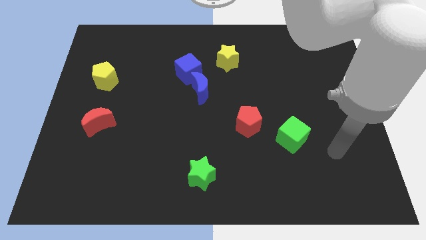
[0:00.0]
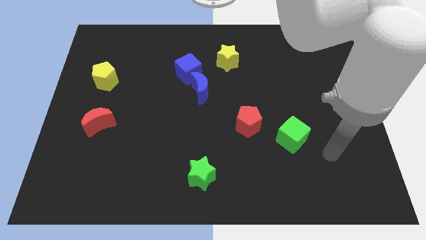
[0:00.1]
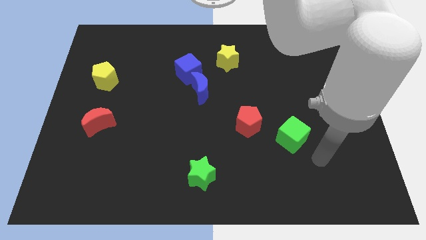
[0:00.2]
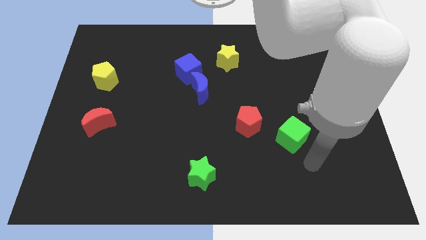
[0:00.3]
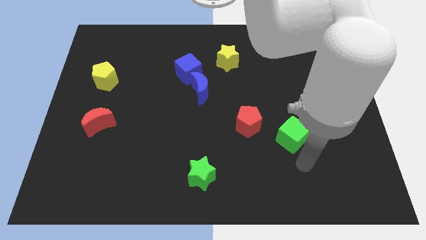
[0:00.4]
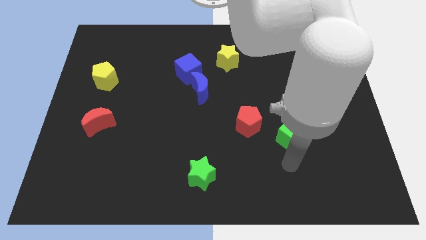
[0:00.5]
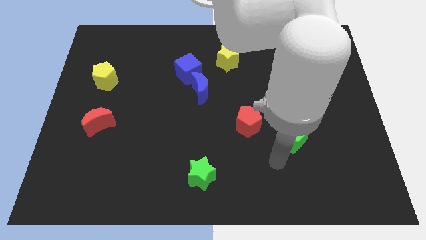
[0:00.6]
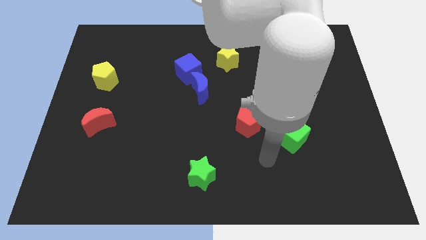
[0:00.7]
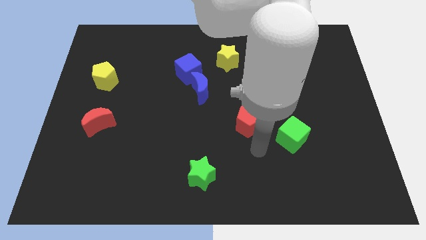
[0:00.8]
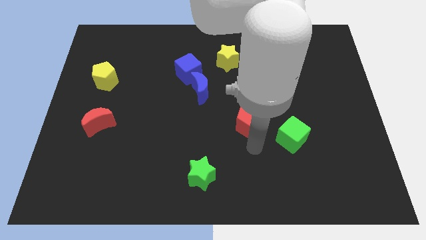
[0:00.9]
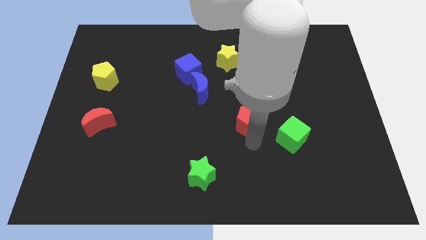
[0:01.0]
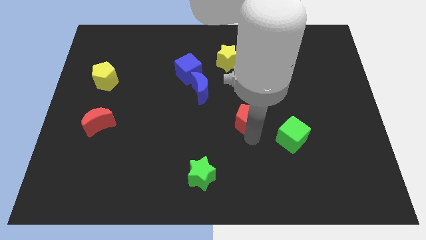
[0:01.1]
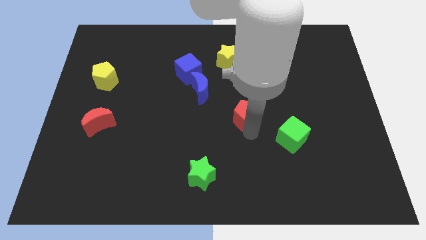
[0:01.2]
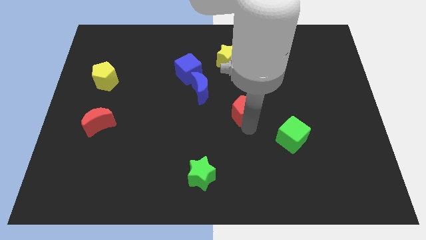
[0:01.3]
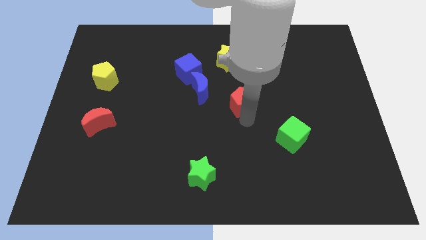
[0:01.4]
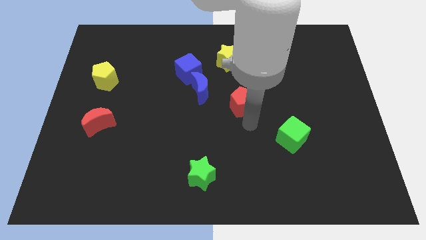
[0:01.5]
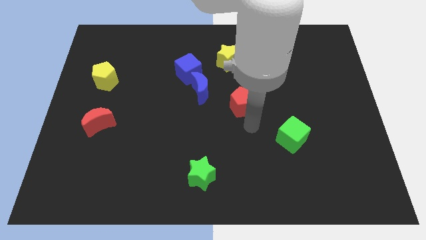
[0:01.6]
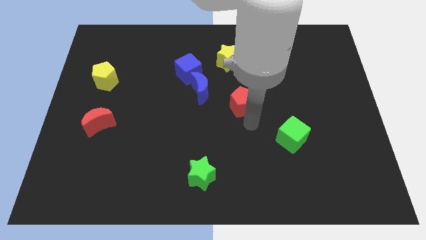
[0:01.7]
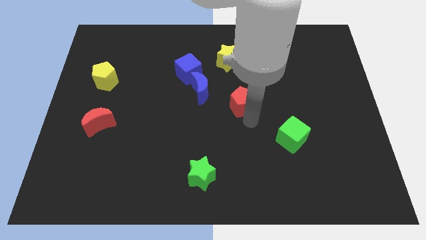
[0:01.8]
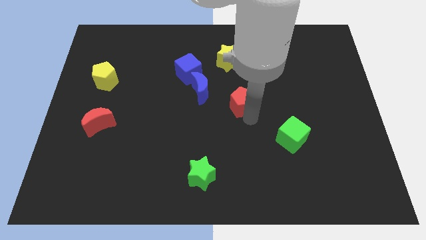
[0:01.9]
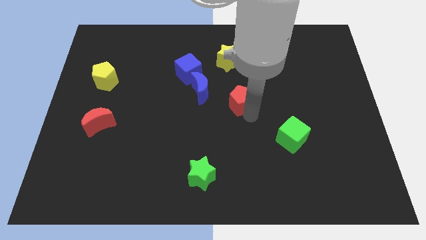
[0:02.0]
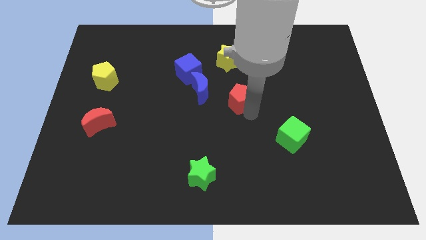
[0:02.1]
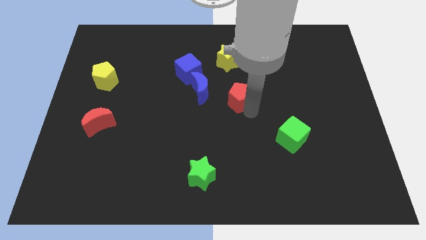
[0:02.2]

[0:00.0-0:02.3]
push the red pentagon up somewhat

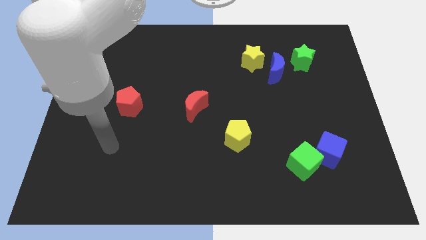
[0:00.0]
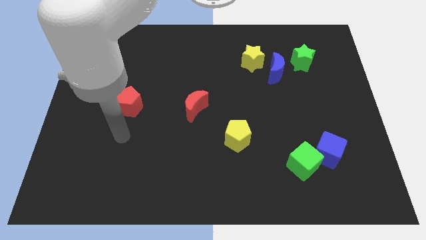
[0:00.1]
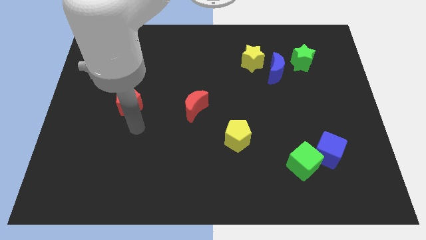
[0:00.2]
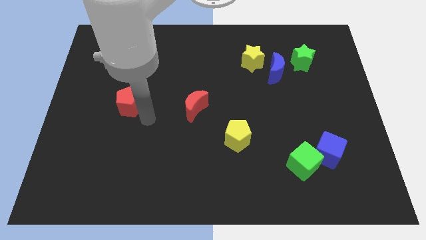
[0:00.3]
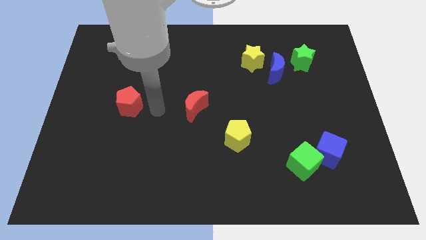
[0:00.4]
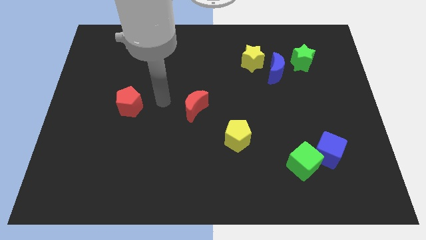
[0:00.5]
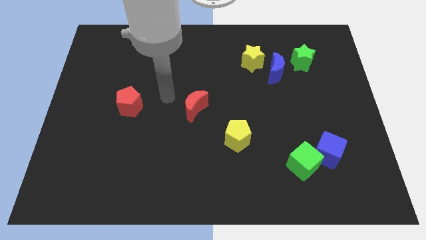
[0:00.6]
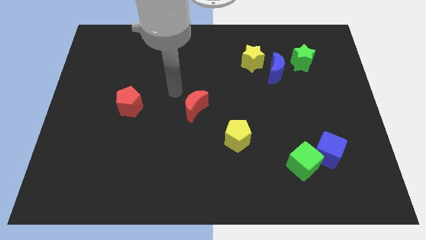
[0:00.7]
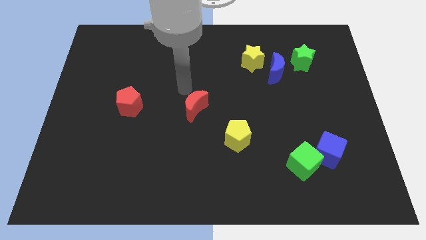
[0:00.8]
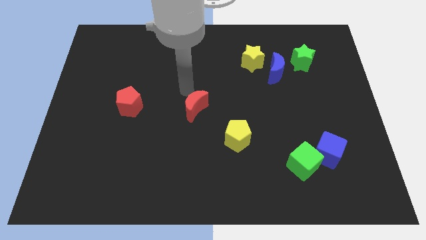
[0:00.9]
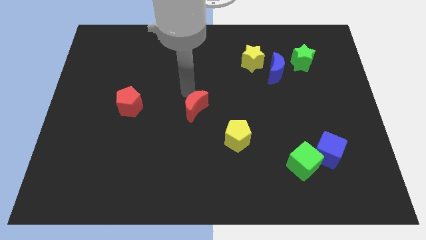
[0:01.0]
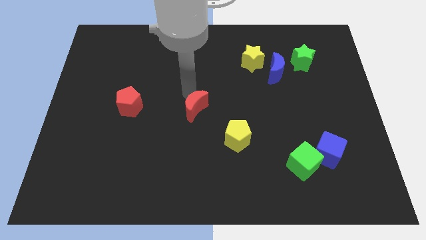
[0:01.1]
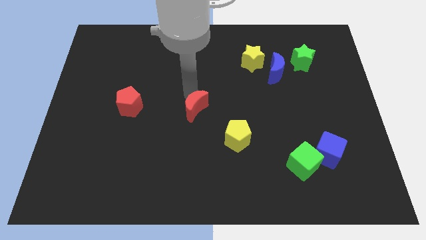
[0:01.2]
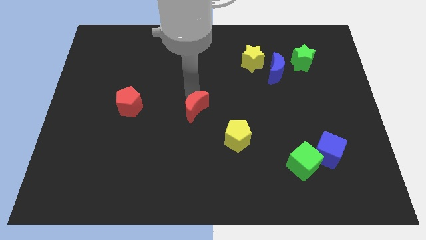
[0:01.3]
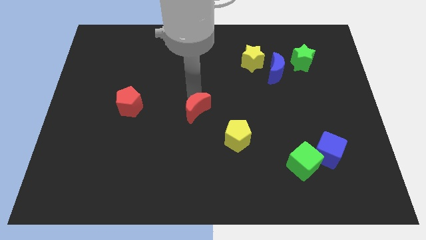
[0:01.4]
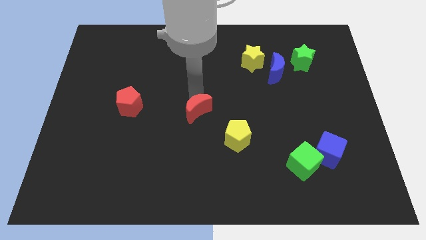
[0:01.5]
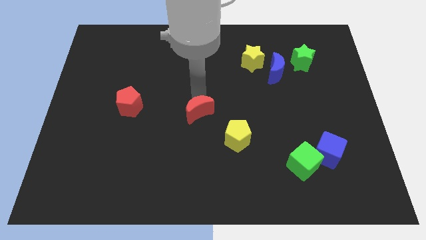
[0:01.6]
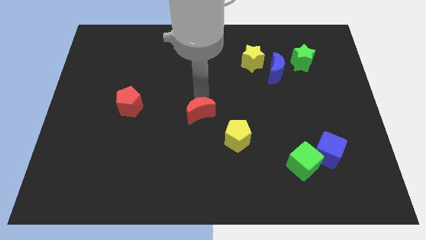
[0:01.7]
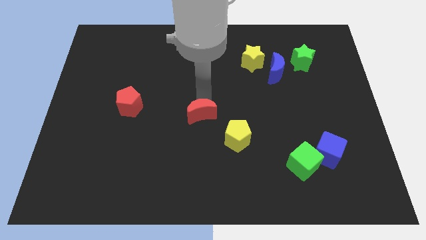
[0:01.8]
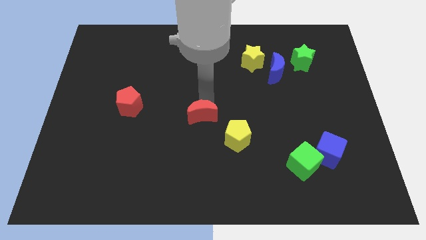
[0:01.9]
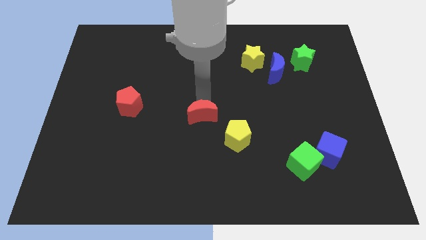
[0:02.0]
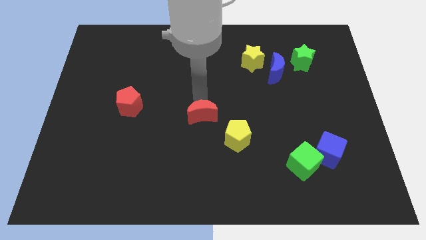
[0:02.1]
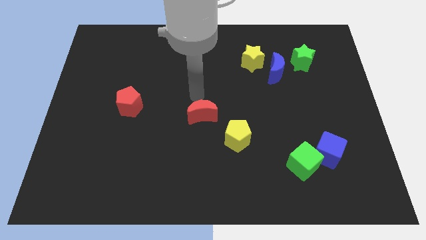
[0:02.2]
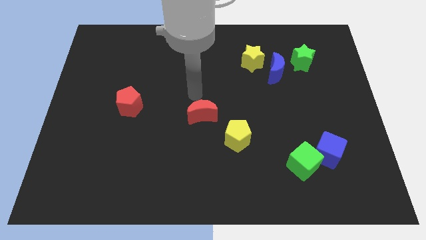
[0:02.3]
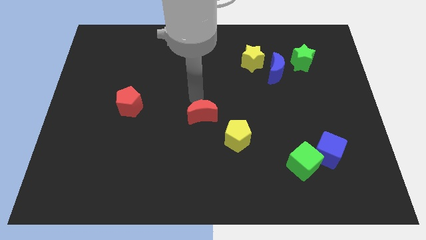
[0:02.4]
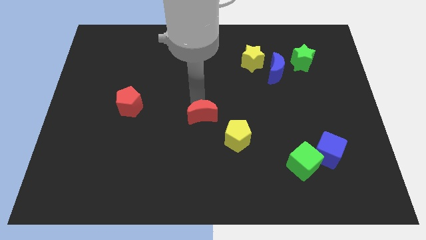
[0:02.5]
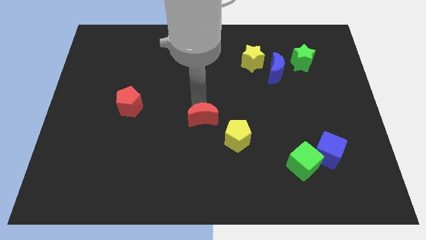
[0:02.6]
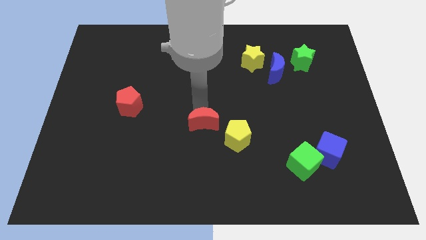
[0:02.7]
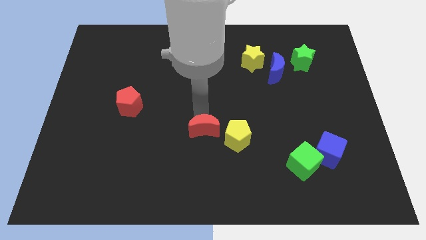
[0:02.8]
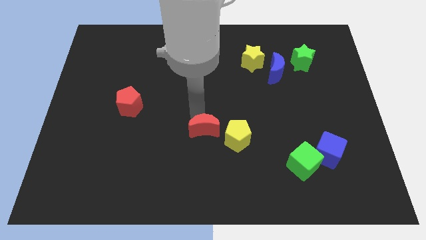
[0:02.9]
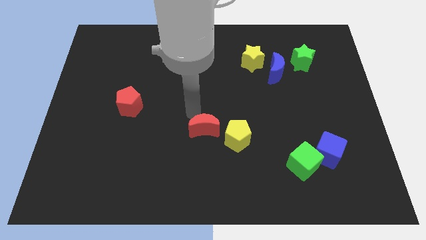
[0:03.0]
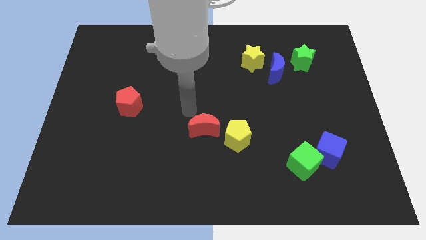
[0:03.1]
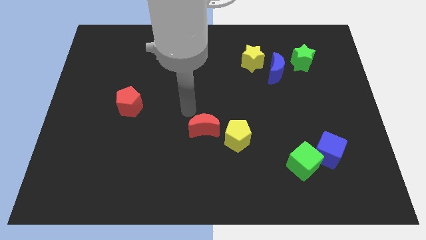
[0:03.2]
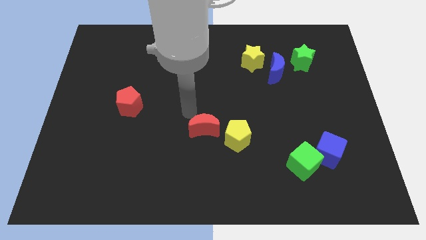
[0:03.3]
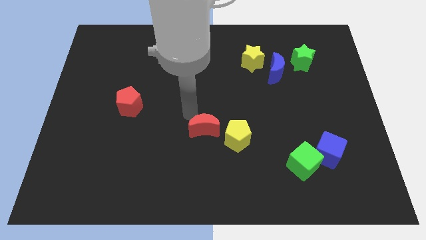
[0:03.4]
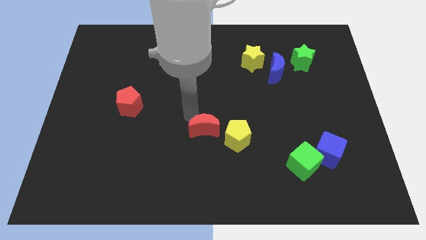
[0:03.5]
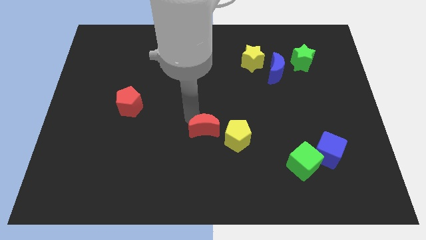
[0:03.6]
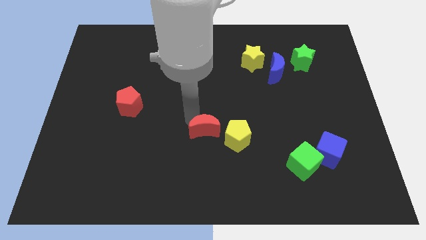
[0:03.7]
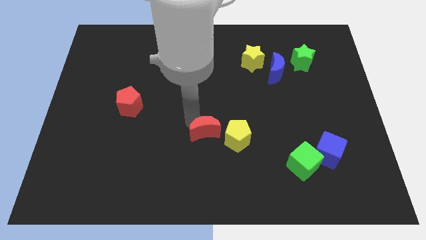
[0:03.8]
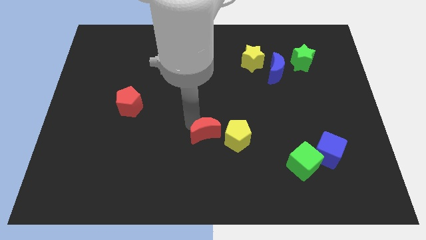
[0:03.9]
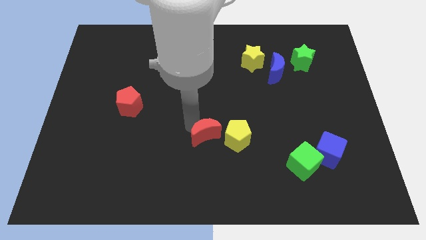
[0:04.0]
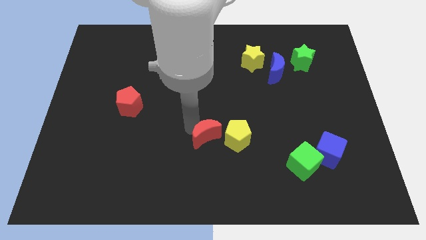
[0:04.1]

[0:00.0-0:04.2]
slide the red moon downwards and then right a bit

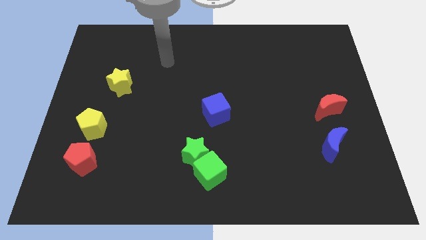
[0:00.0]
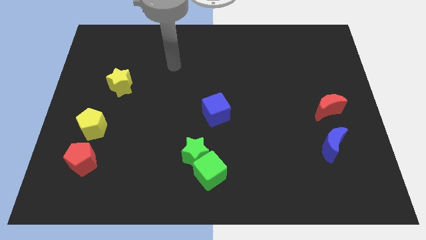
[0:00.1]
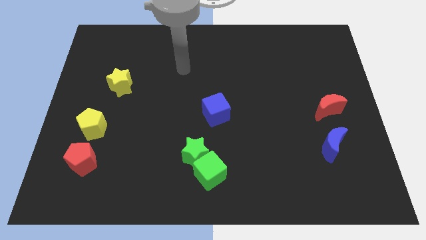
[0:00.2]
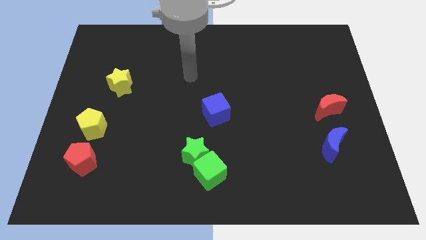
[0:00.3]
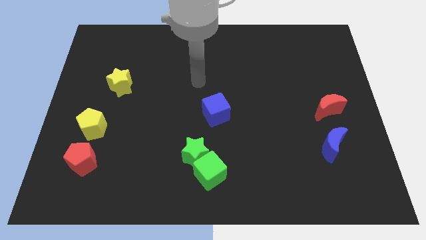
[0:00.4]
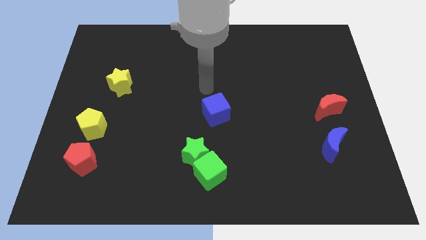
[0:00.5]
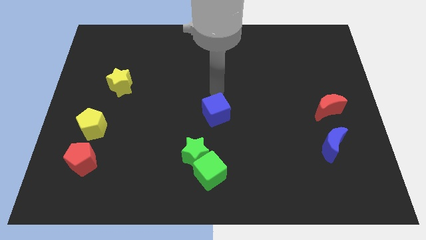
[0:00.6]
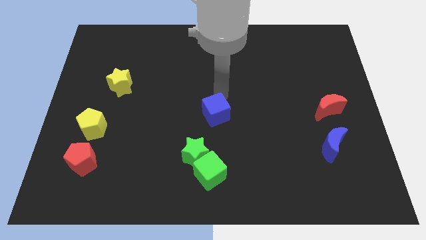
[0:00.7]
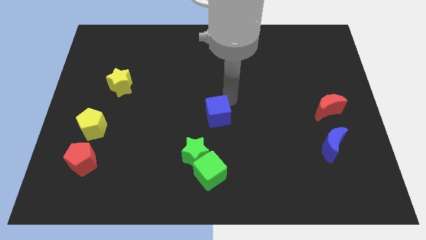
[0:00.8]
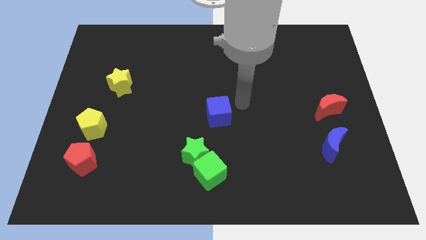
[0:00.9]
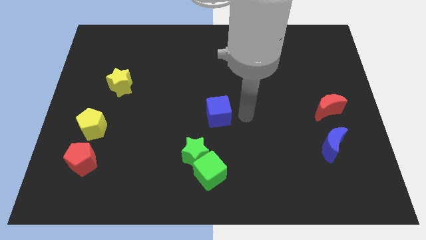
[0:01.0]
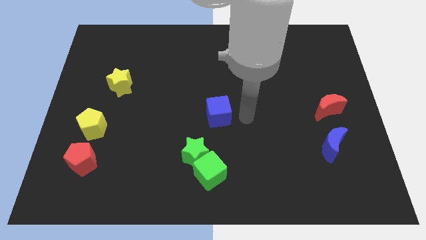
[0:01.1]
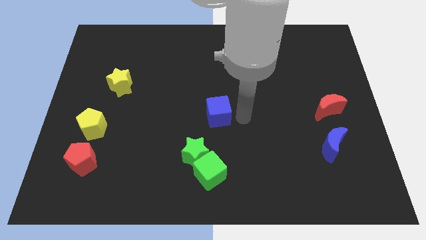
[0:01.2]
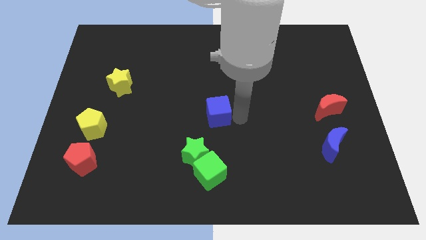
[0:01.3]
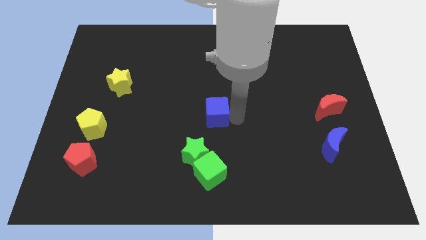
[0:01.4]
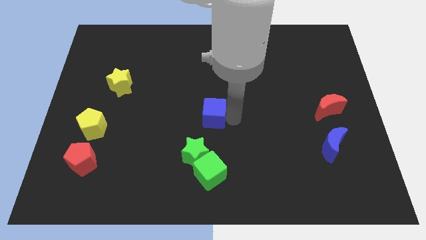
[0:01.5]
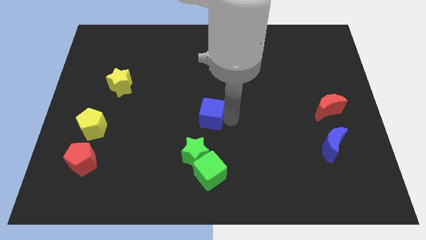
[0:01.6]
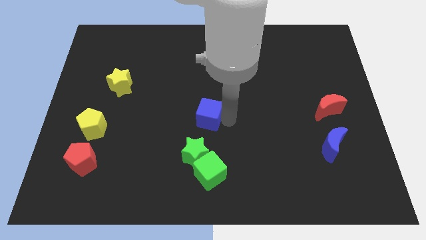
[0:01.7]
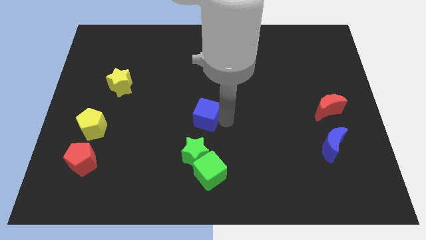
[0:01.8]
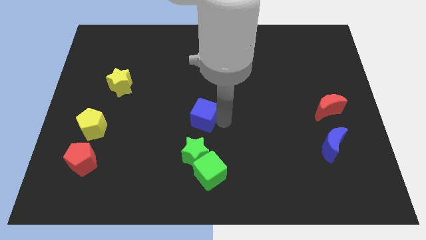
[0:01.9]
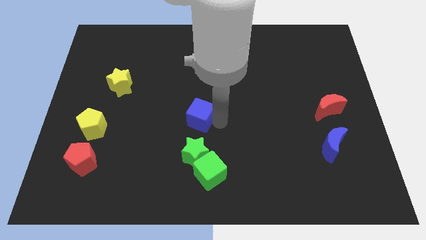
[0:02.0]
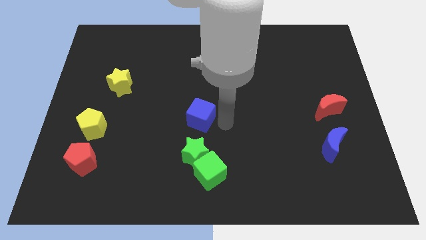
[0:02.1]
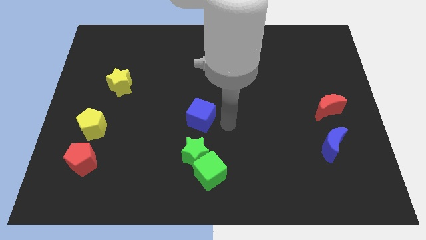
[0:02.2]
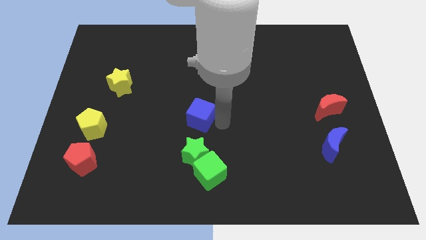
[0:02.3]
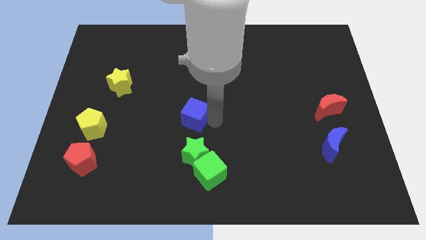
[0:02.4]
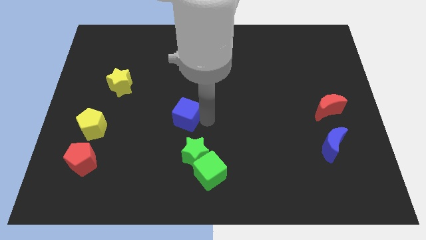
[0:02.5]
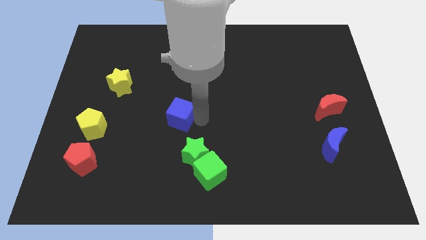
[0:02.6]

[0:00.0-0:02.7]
push the blue cube a little to the left
